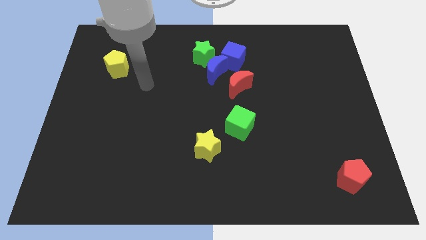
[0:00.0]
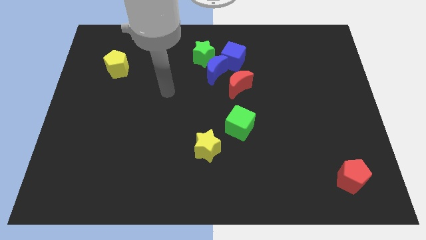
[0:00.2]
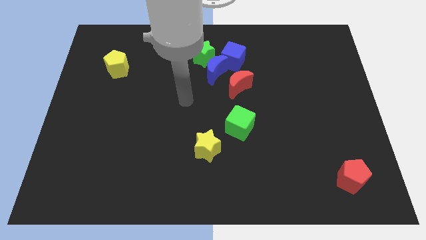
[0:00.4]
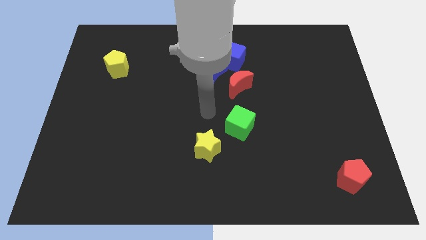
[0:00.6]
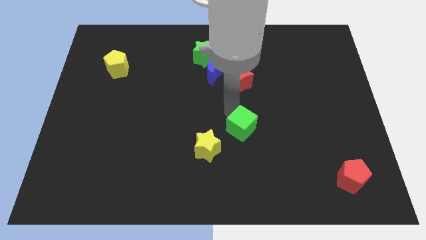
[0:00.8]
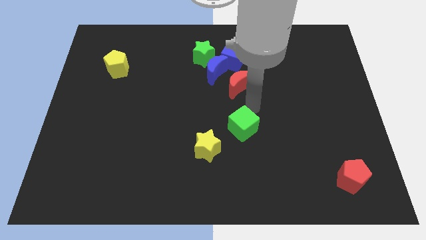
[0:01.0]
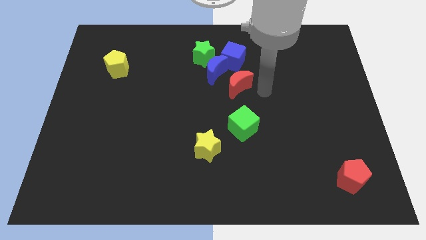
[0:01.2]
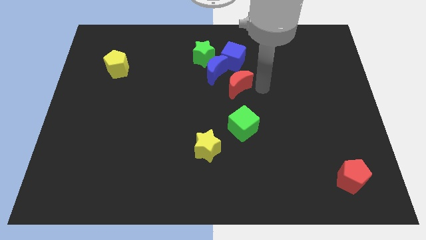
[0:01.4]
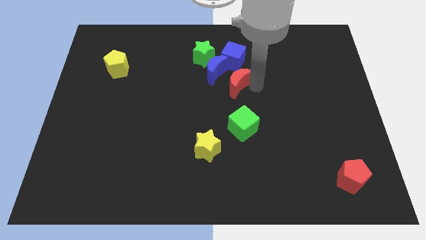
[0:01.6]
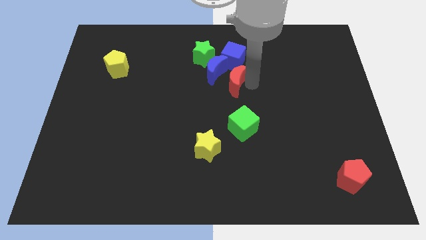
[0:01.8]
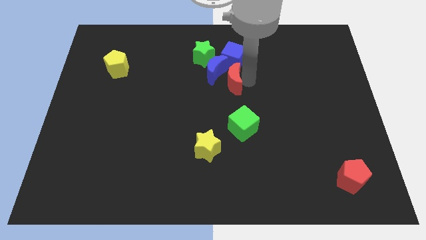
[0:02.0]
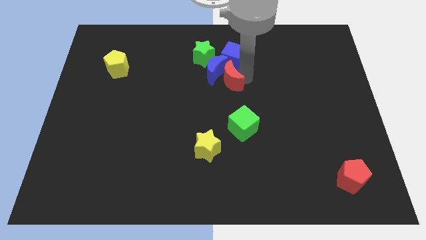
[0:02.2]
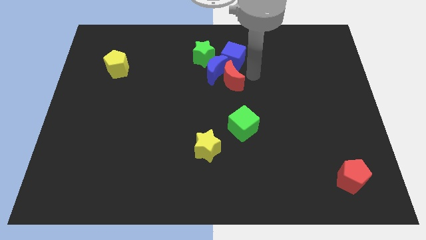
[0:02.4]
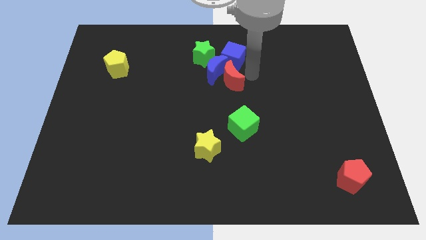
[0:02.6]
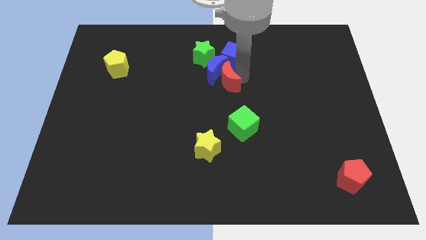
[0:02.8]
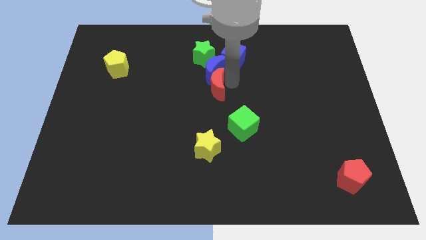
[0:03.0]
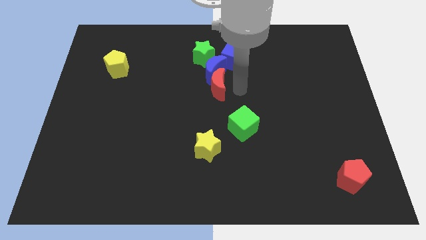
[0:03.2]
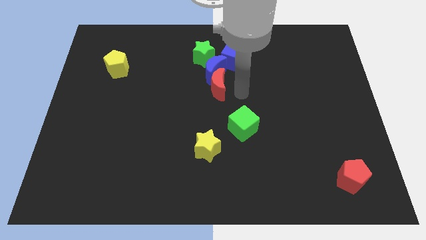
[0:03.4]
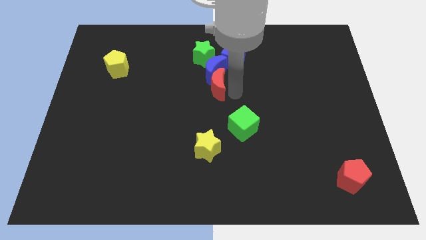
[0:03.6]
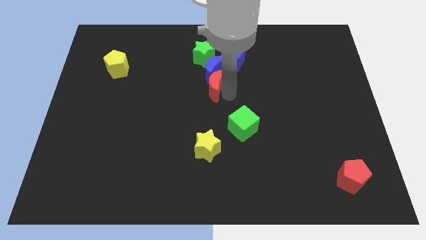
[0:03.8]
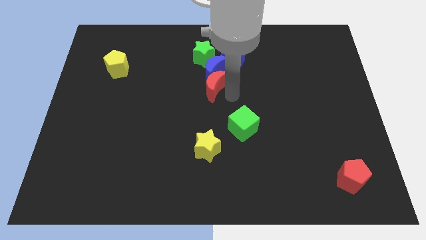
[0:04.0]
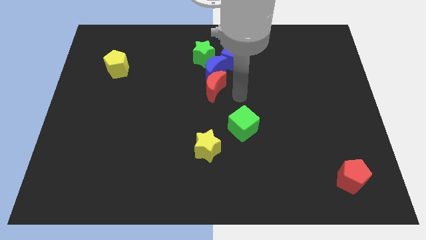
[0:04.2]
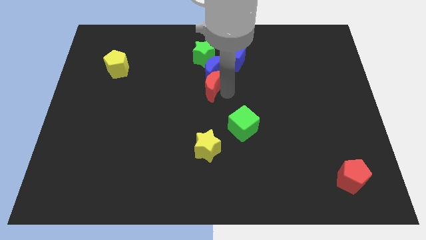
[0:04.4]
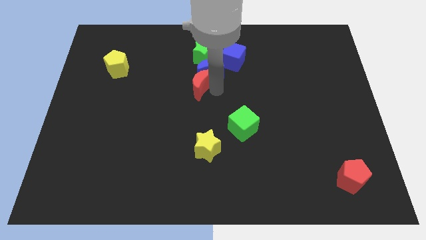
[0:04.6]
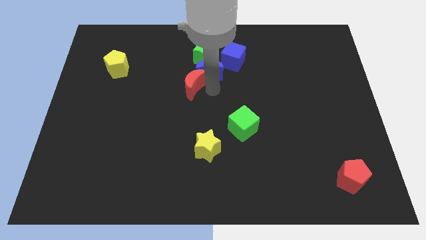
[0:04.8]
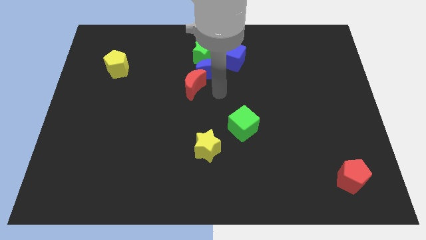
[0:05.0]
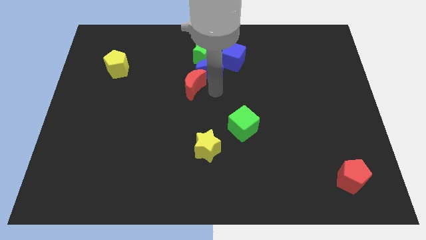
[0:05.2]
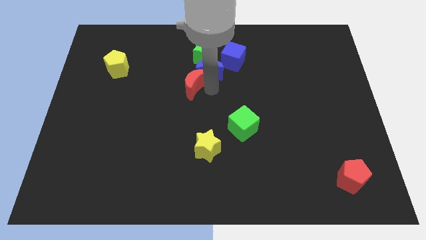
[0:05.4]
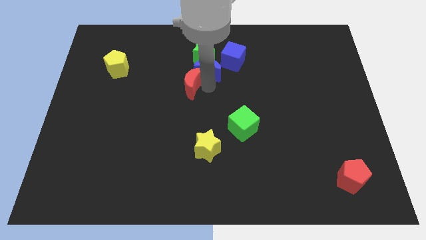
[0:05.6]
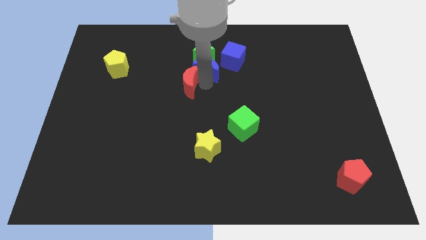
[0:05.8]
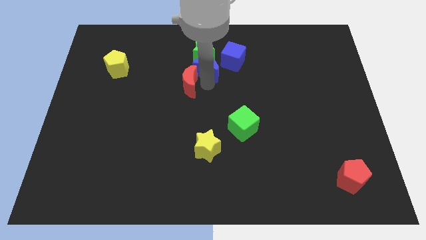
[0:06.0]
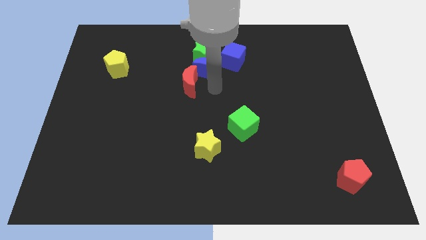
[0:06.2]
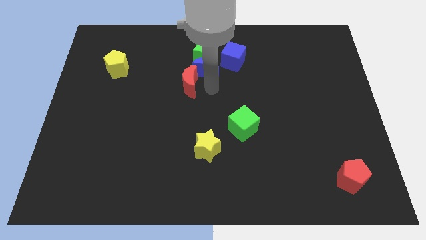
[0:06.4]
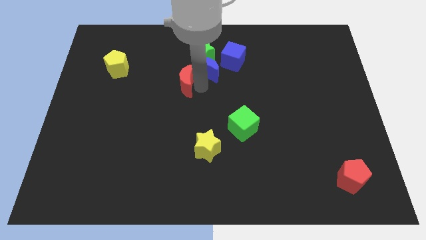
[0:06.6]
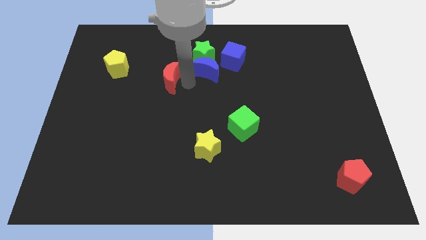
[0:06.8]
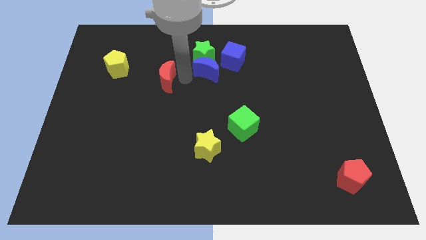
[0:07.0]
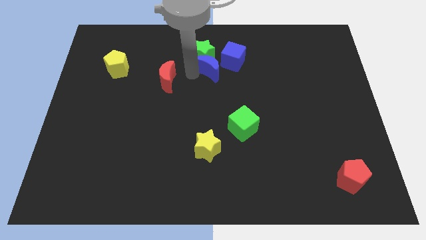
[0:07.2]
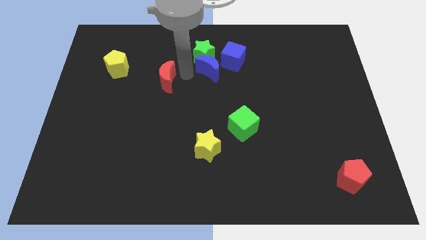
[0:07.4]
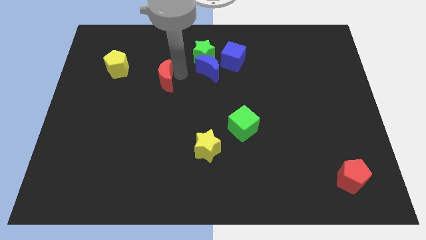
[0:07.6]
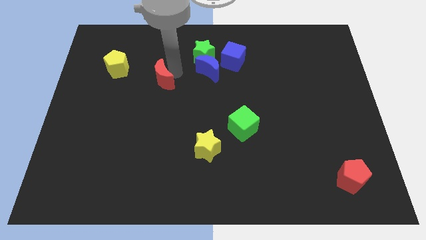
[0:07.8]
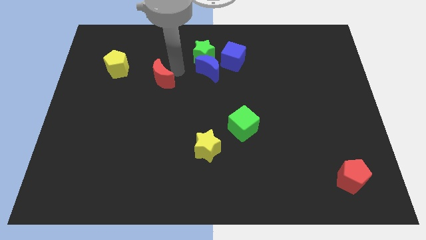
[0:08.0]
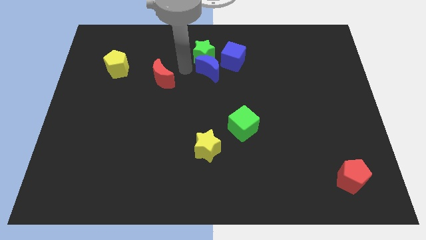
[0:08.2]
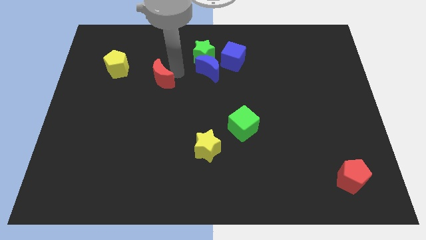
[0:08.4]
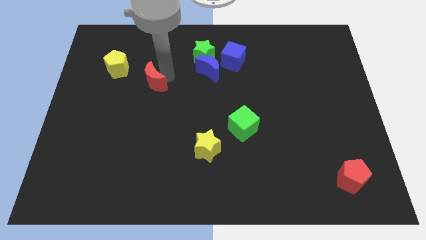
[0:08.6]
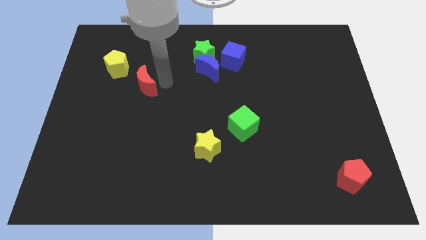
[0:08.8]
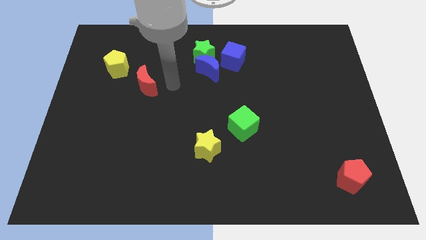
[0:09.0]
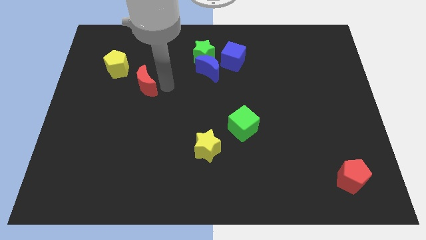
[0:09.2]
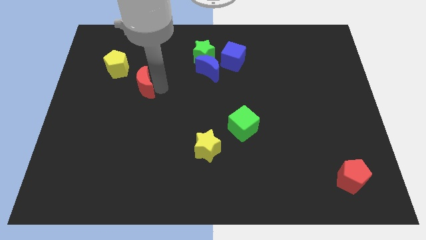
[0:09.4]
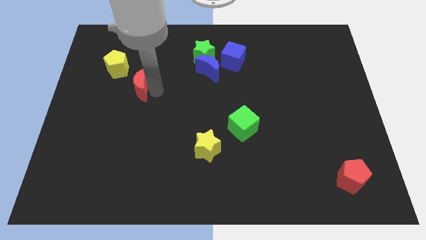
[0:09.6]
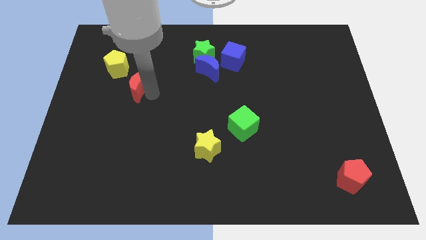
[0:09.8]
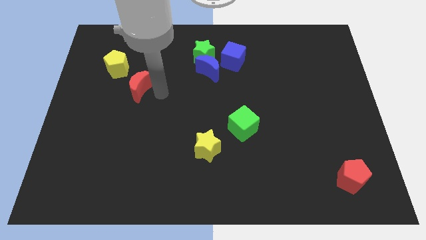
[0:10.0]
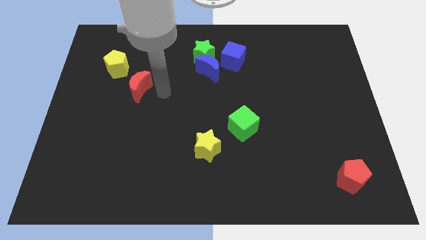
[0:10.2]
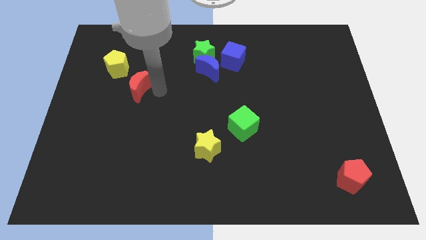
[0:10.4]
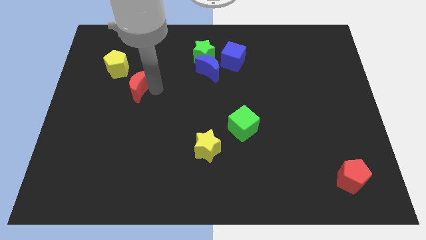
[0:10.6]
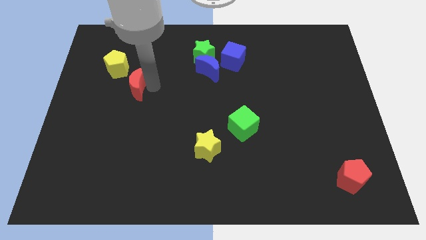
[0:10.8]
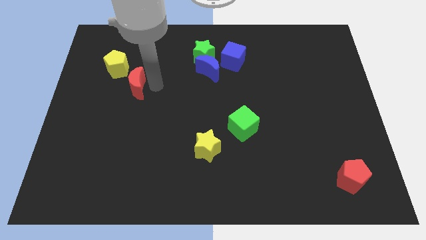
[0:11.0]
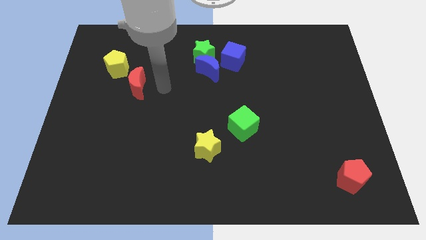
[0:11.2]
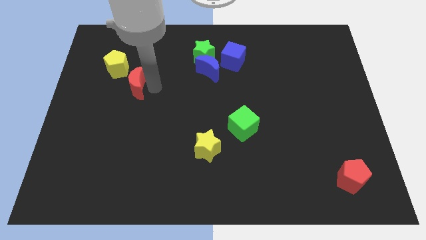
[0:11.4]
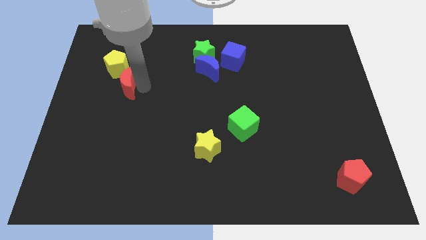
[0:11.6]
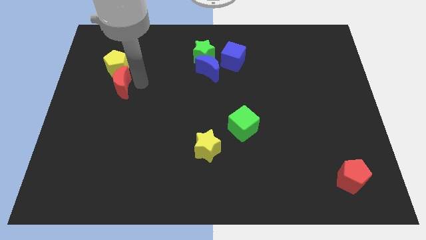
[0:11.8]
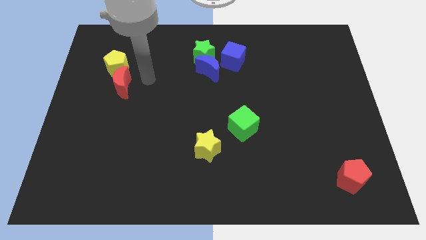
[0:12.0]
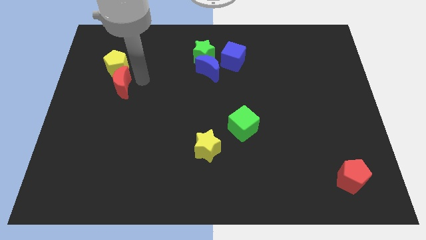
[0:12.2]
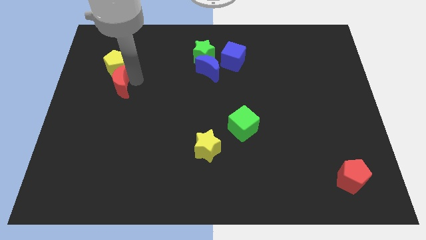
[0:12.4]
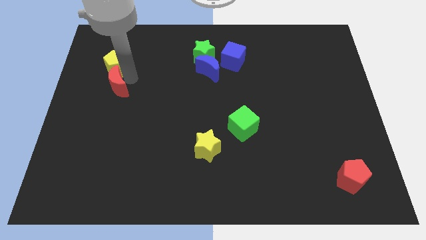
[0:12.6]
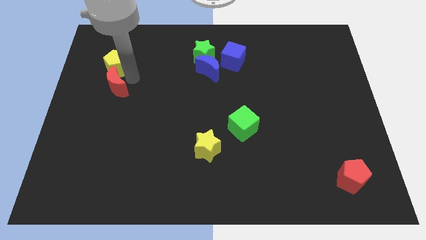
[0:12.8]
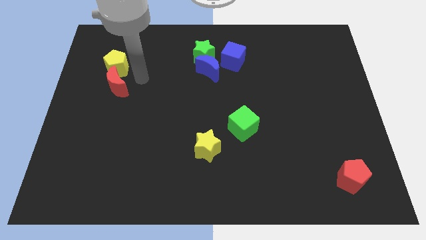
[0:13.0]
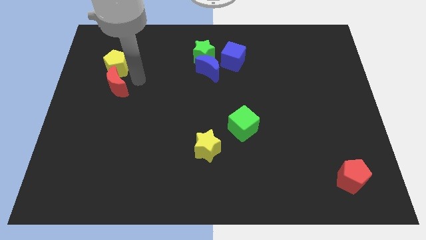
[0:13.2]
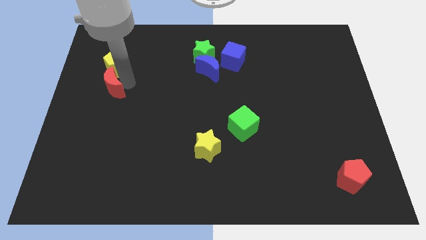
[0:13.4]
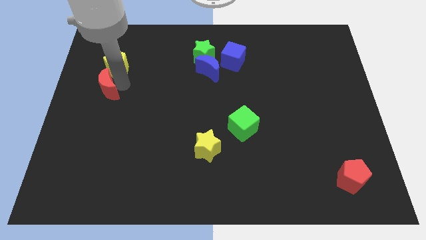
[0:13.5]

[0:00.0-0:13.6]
move the red moon to the left side of the board
